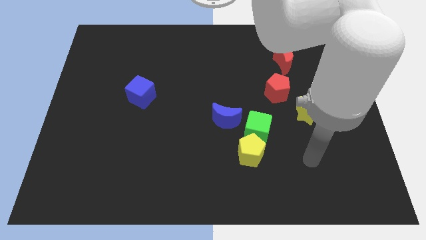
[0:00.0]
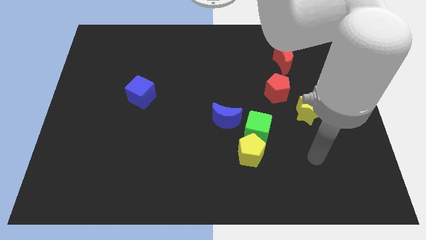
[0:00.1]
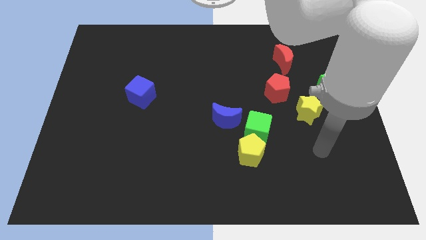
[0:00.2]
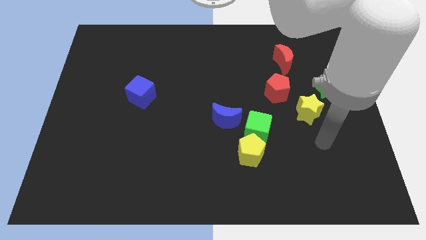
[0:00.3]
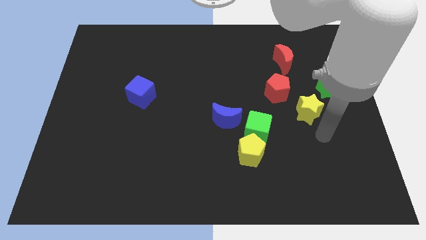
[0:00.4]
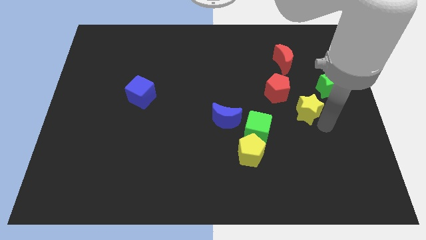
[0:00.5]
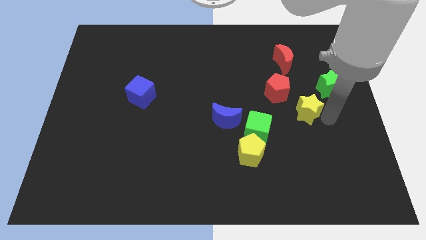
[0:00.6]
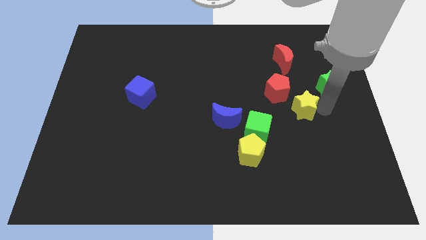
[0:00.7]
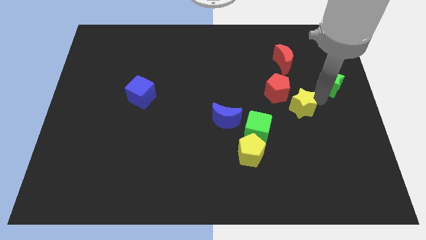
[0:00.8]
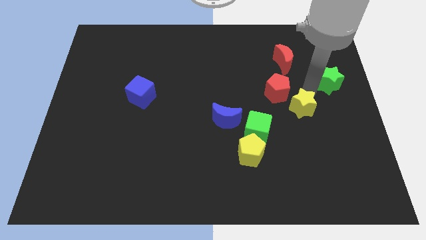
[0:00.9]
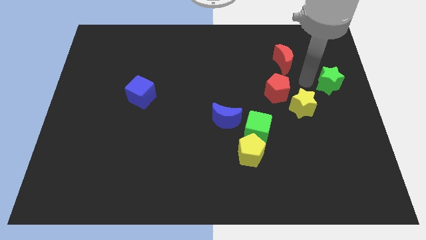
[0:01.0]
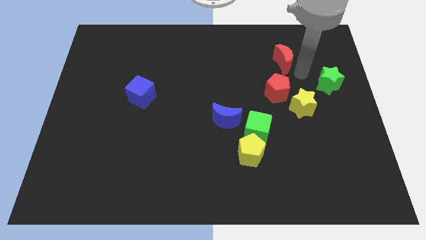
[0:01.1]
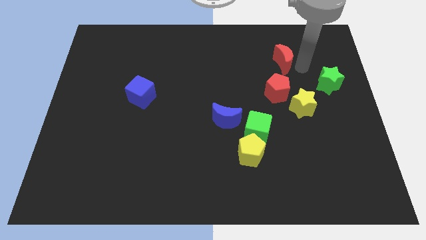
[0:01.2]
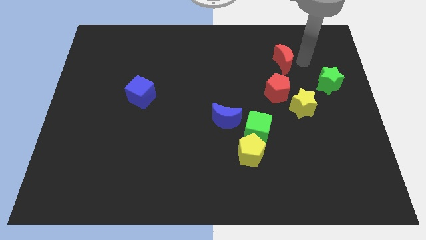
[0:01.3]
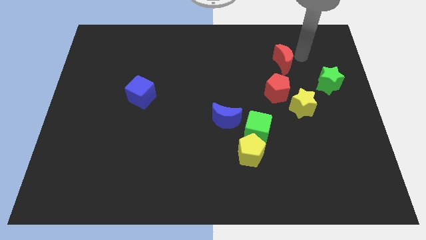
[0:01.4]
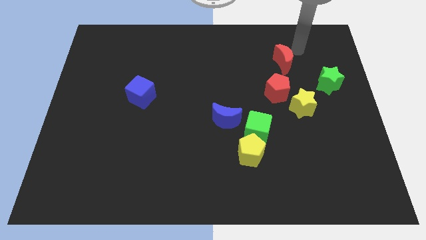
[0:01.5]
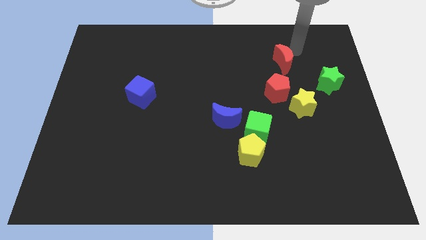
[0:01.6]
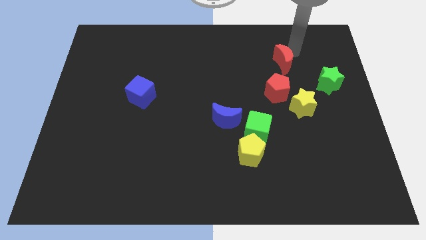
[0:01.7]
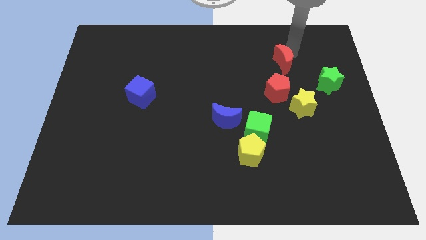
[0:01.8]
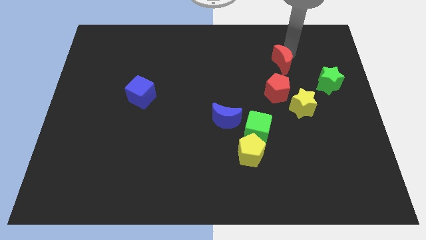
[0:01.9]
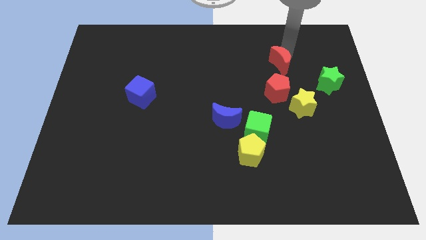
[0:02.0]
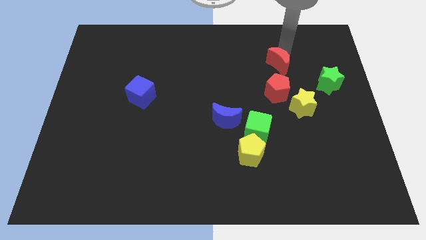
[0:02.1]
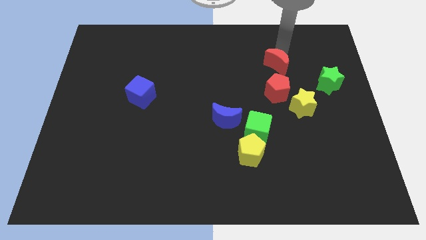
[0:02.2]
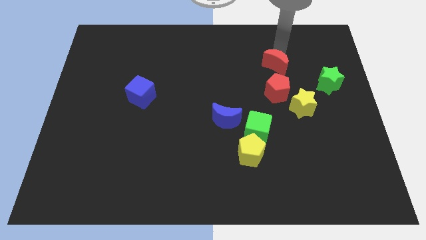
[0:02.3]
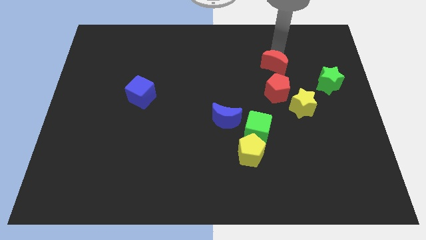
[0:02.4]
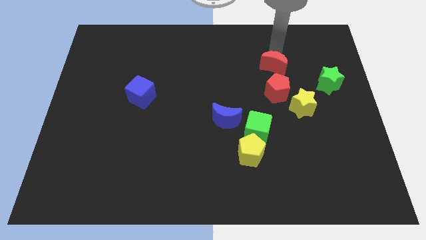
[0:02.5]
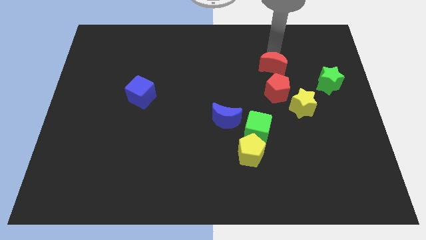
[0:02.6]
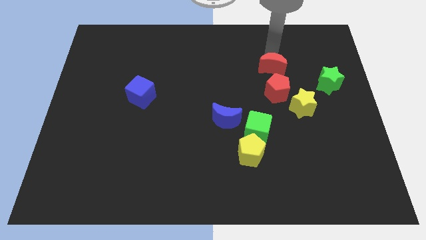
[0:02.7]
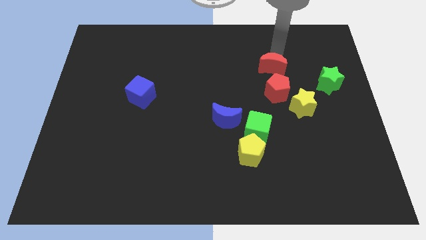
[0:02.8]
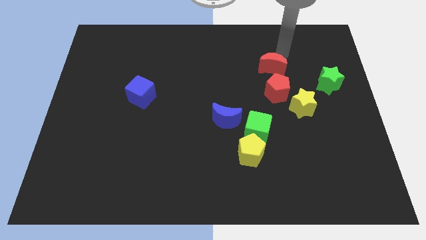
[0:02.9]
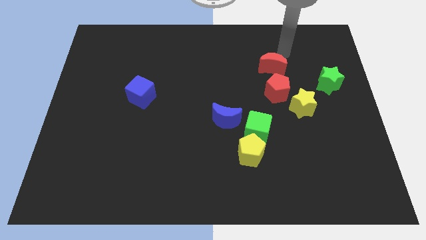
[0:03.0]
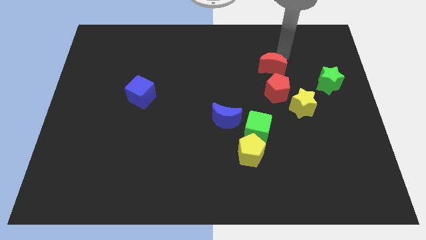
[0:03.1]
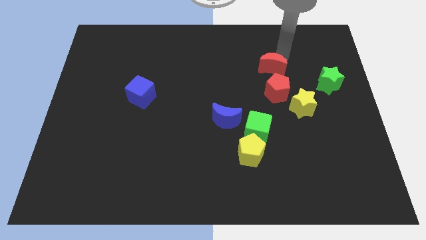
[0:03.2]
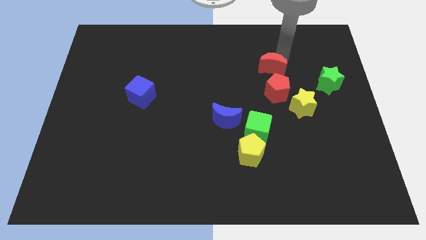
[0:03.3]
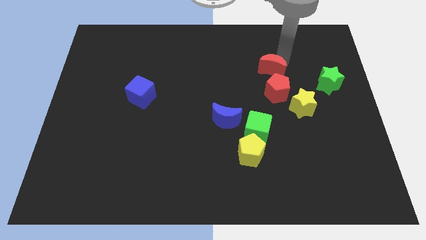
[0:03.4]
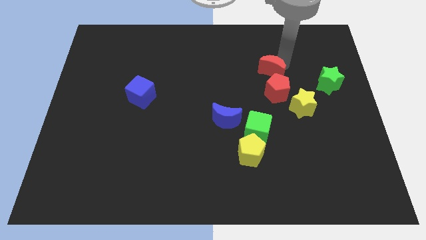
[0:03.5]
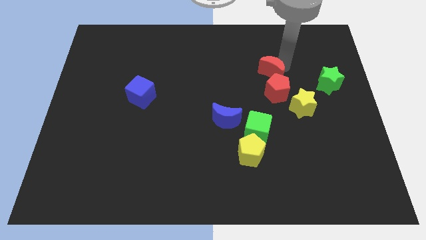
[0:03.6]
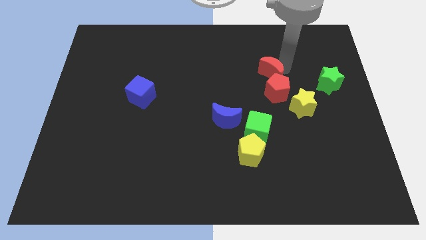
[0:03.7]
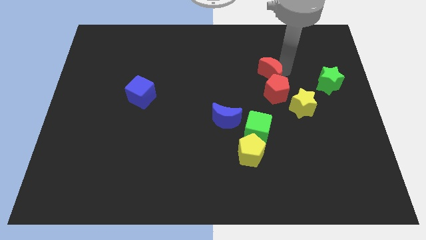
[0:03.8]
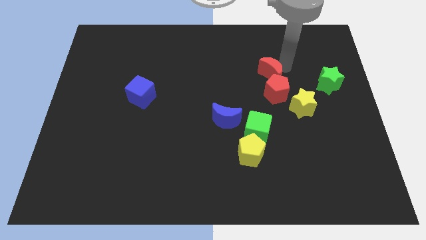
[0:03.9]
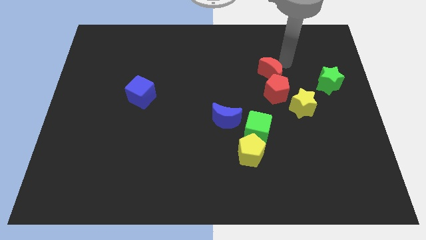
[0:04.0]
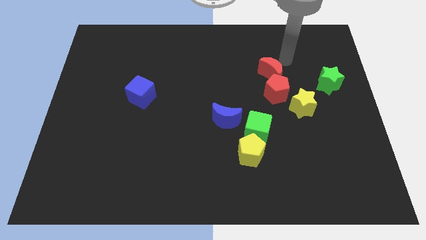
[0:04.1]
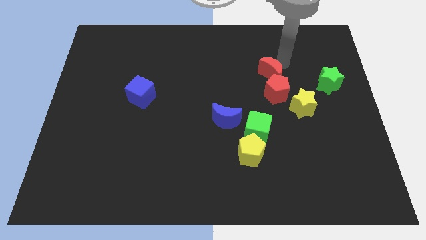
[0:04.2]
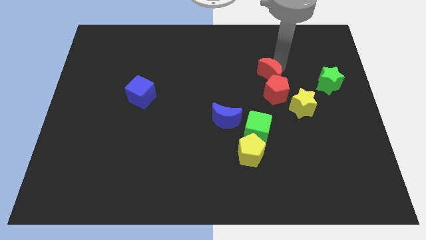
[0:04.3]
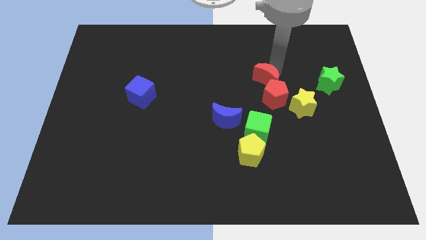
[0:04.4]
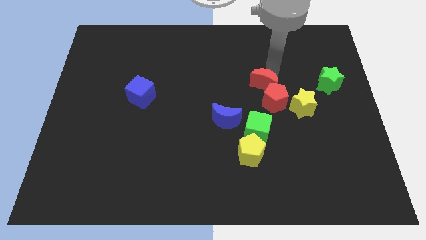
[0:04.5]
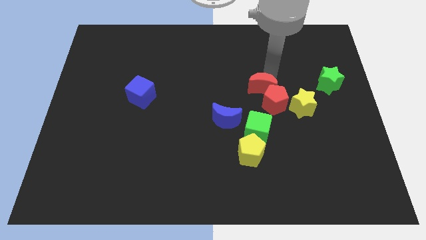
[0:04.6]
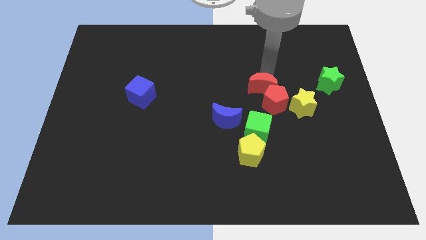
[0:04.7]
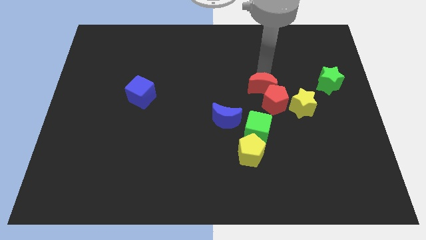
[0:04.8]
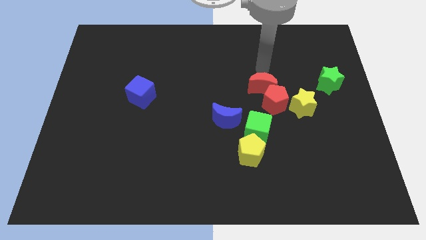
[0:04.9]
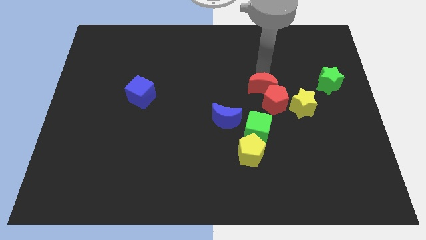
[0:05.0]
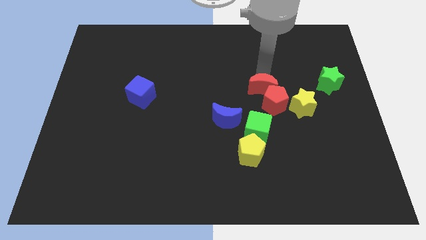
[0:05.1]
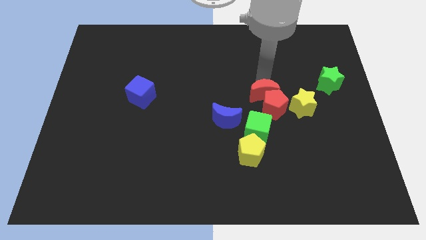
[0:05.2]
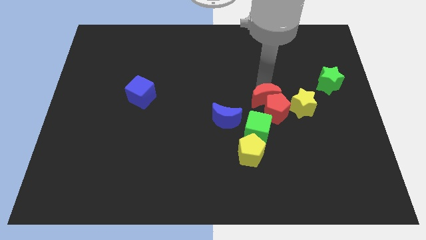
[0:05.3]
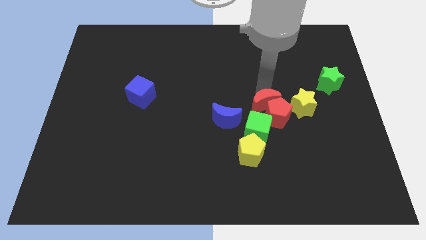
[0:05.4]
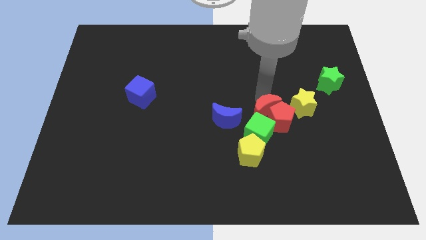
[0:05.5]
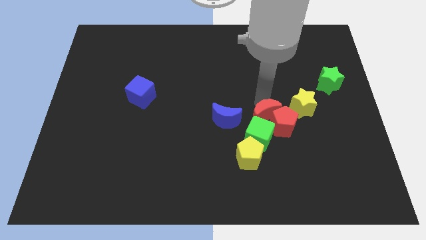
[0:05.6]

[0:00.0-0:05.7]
slide the red moon diagonally down and to the left of the yellow star

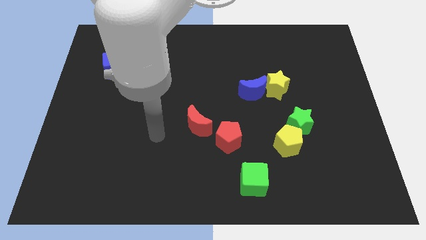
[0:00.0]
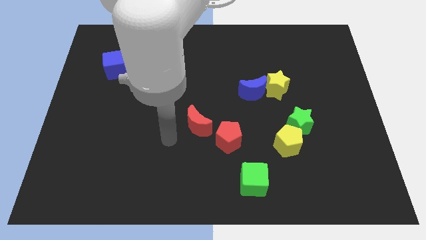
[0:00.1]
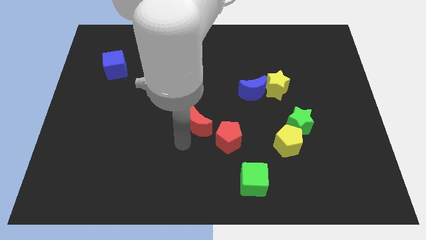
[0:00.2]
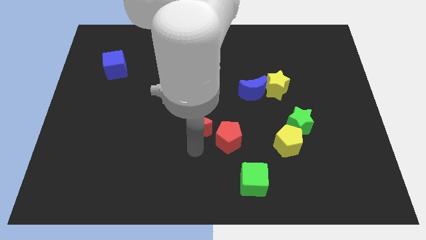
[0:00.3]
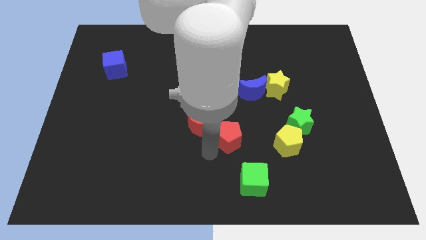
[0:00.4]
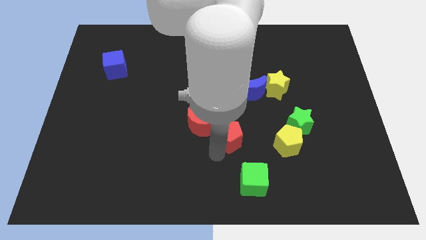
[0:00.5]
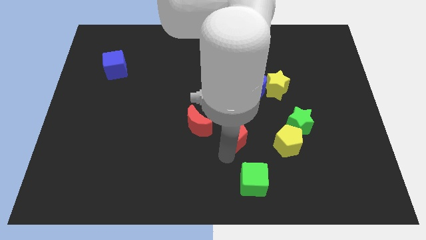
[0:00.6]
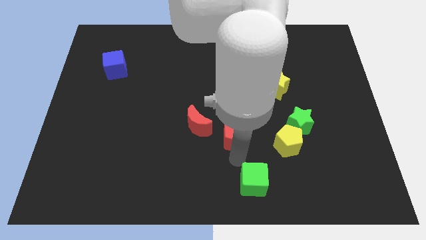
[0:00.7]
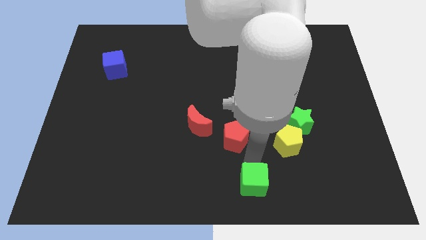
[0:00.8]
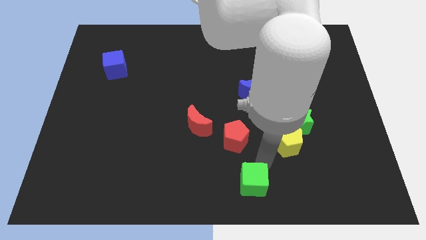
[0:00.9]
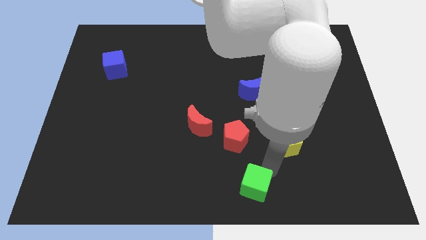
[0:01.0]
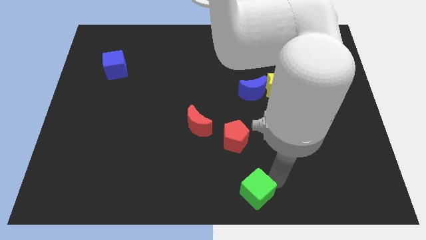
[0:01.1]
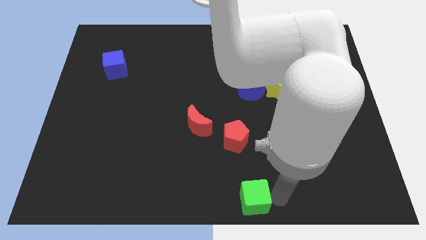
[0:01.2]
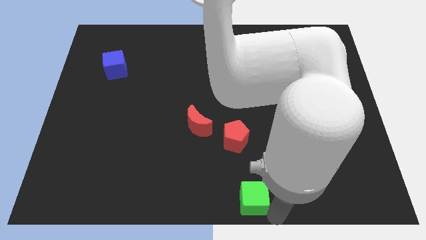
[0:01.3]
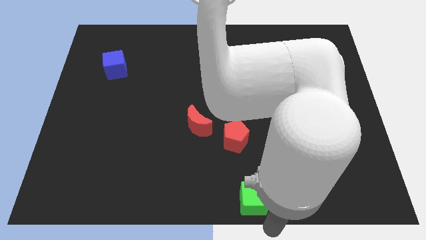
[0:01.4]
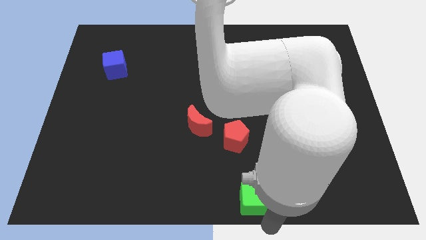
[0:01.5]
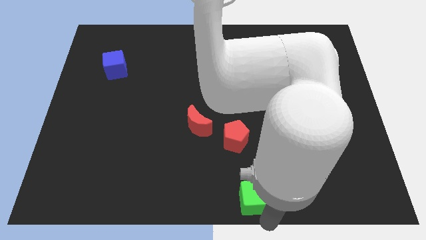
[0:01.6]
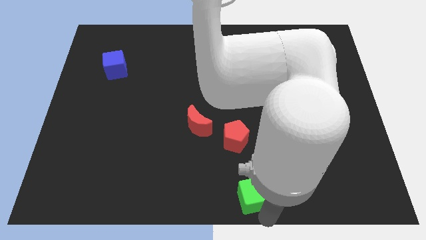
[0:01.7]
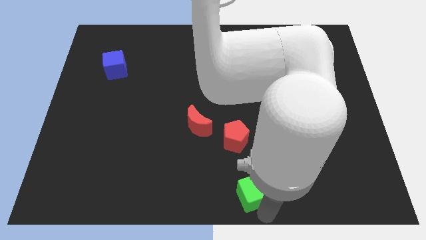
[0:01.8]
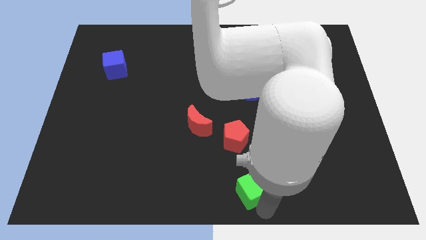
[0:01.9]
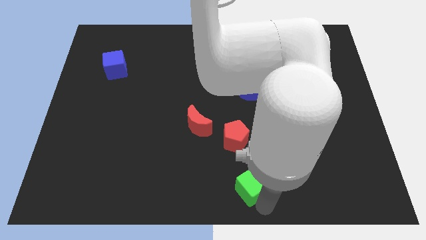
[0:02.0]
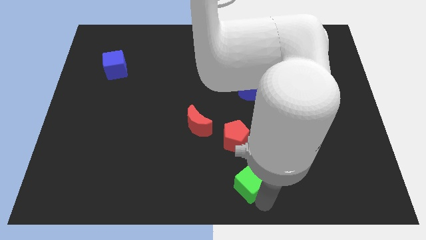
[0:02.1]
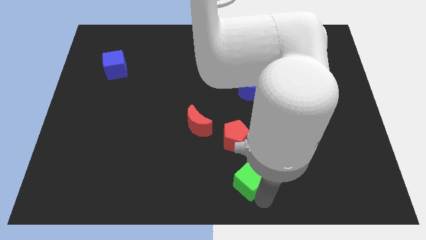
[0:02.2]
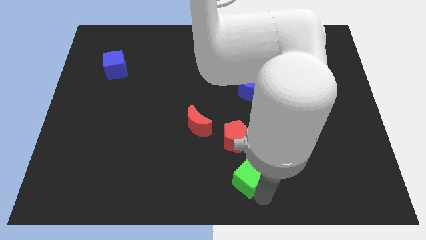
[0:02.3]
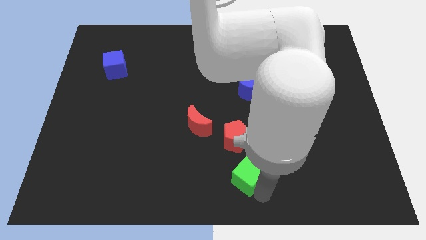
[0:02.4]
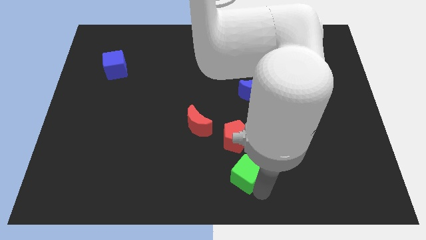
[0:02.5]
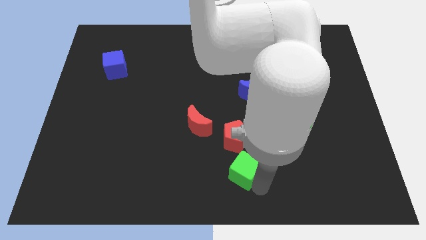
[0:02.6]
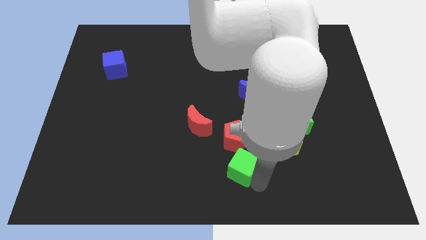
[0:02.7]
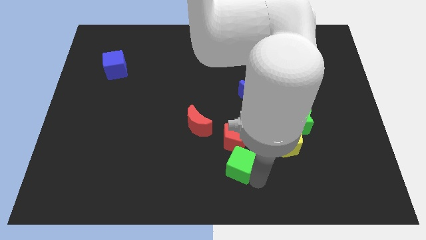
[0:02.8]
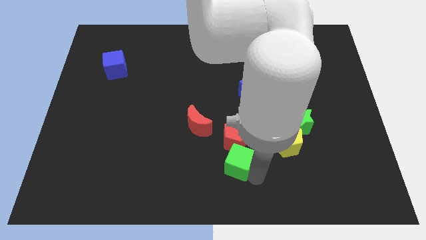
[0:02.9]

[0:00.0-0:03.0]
put the green cube to the bottom left side of the red pentagon
